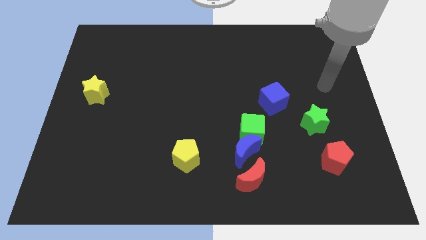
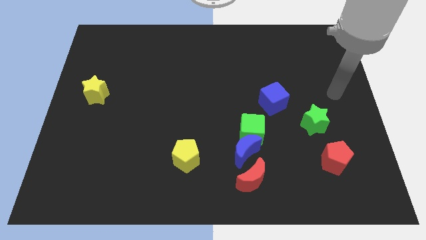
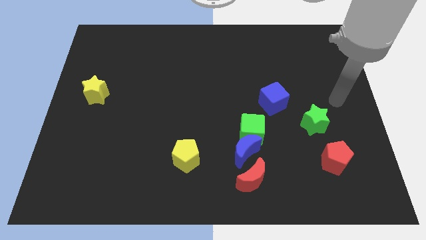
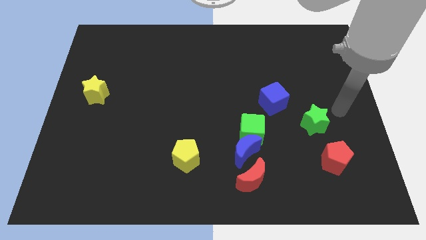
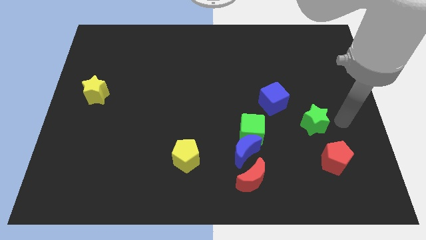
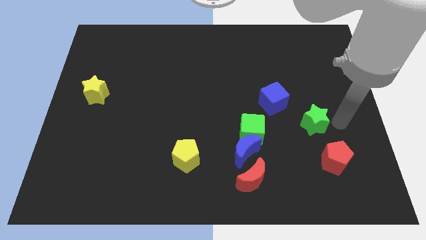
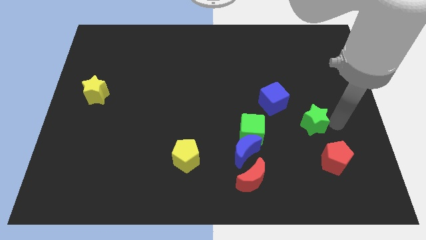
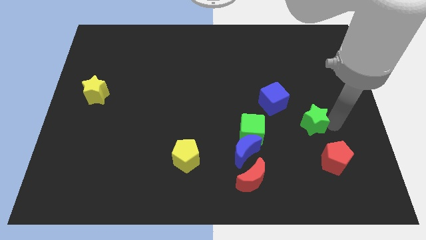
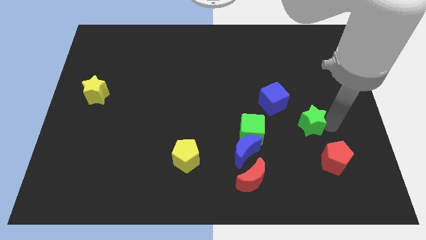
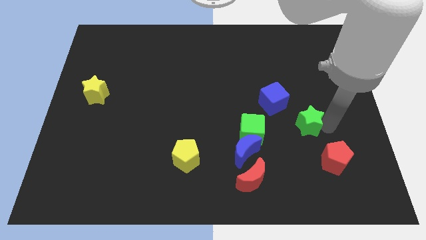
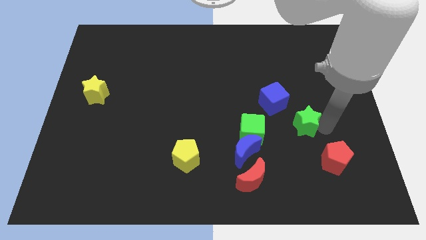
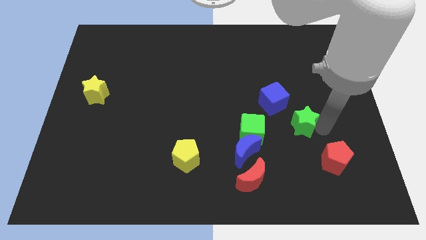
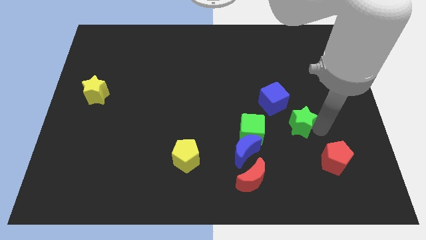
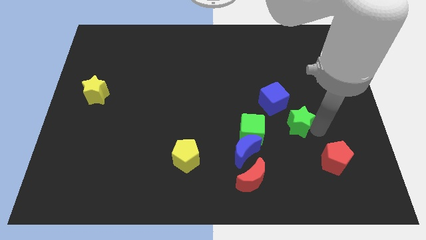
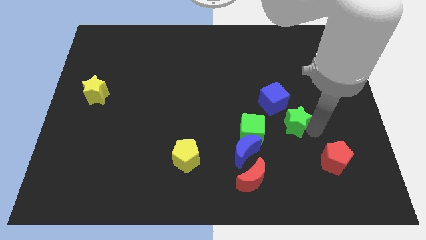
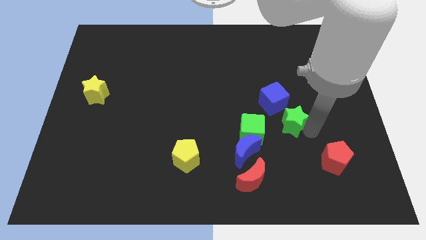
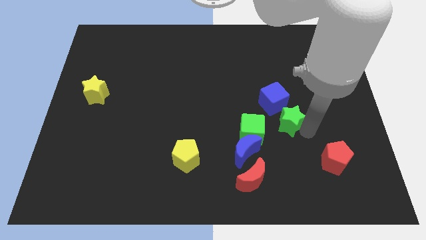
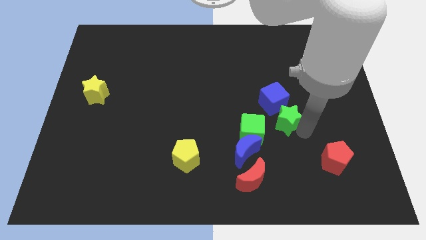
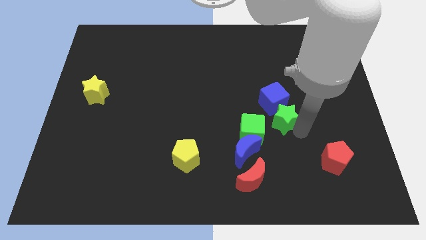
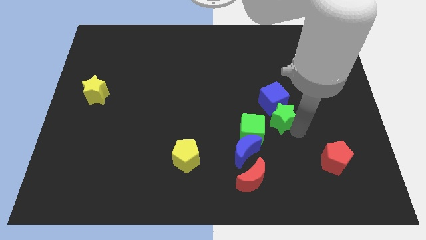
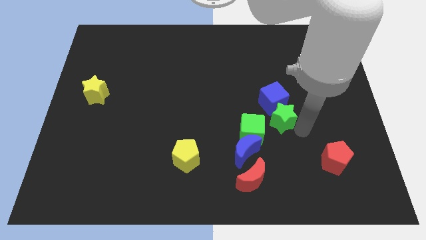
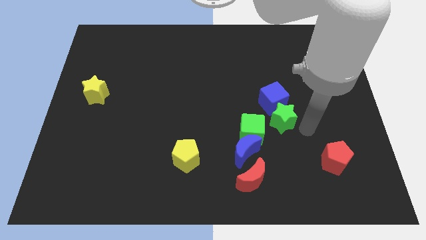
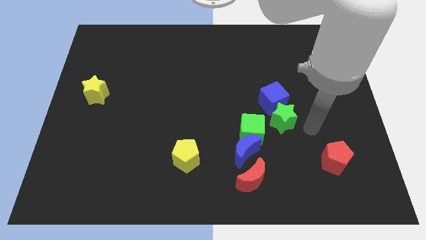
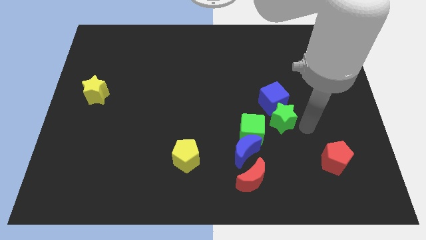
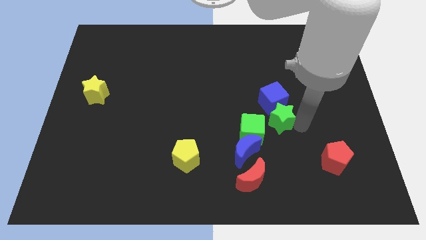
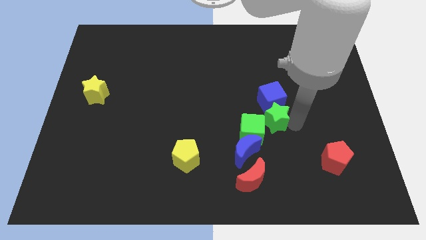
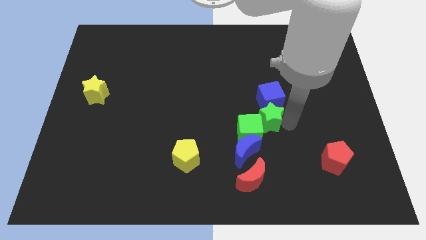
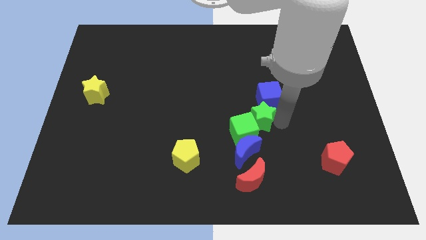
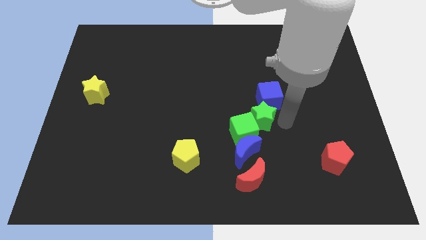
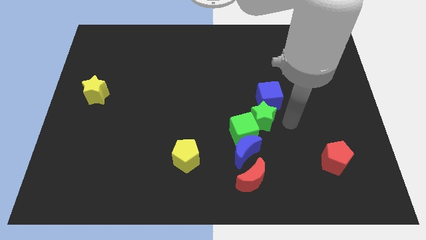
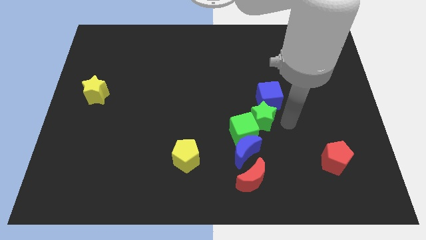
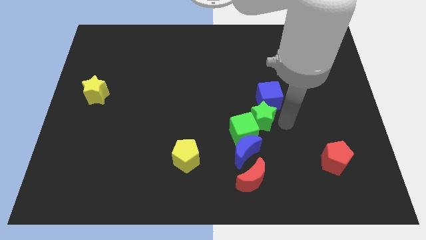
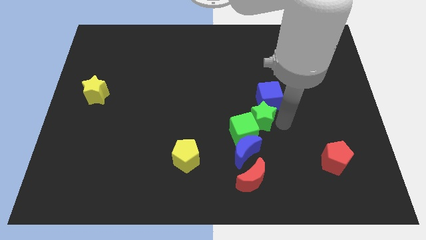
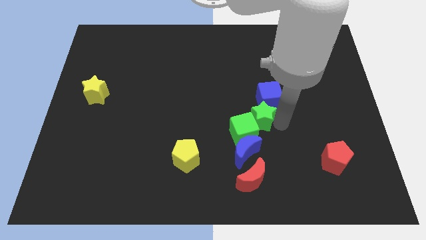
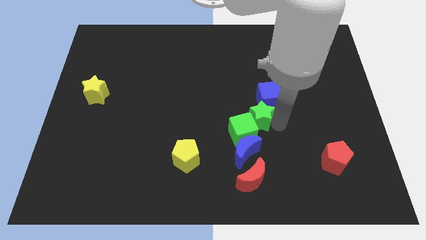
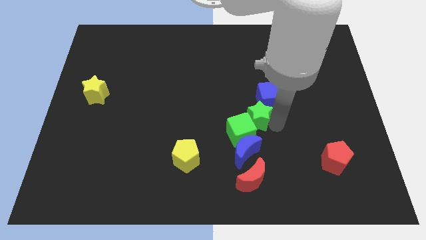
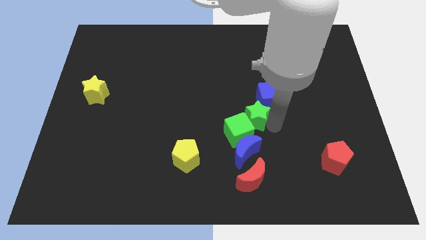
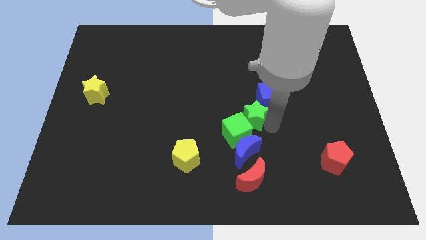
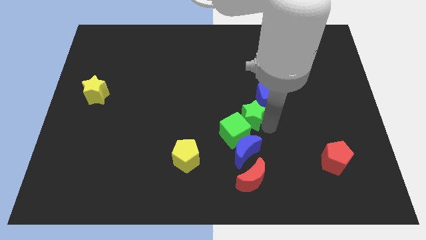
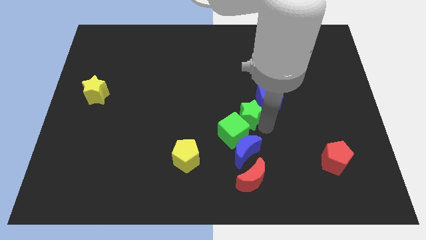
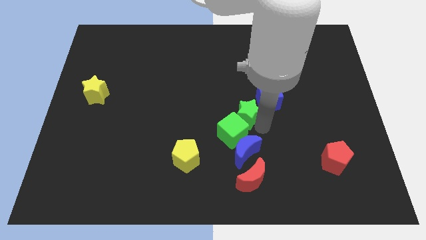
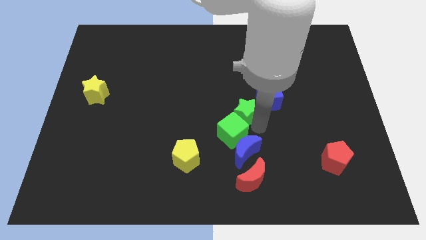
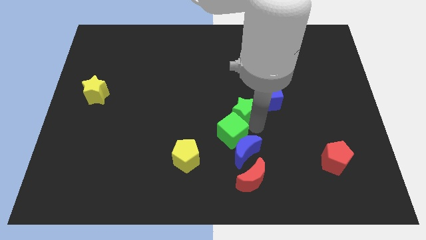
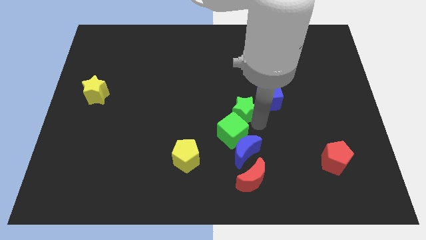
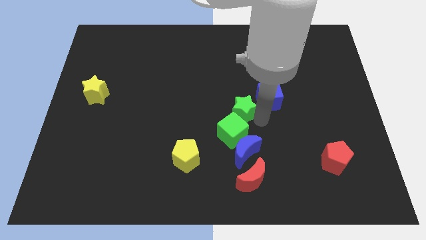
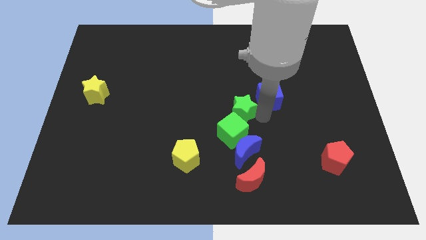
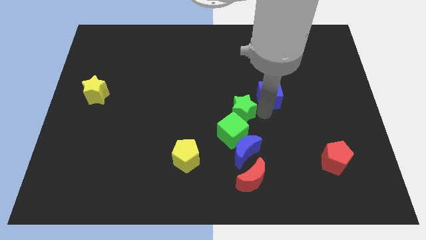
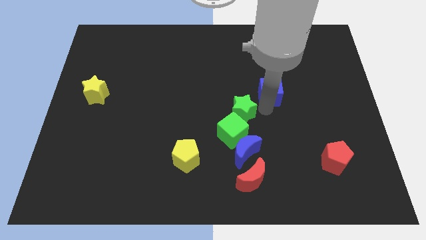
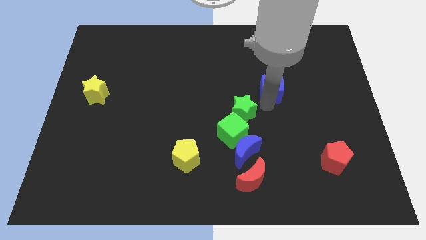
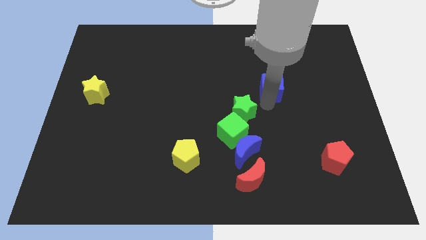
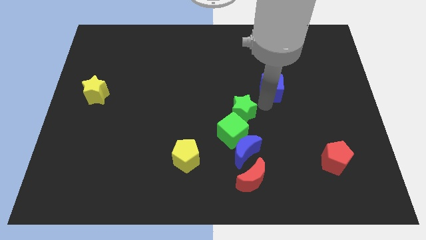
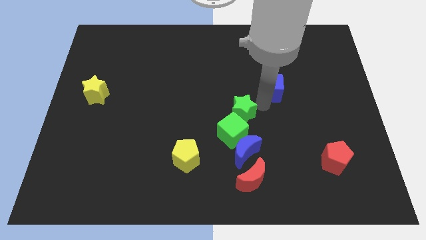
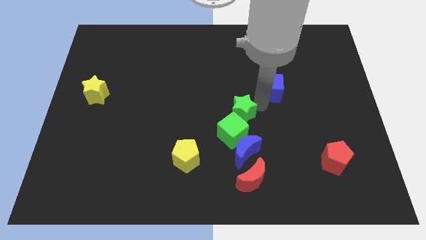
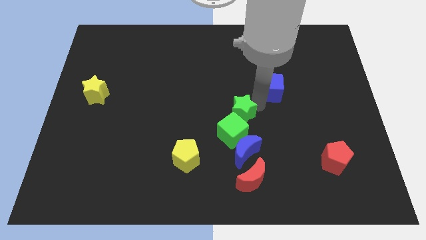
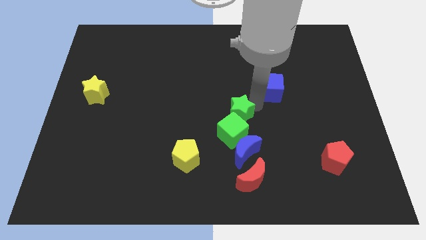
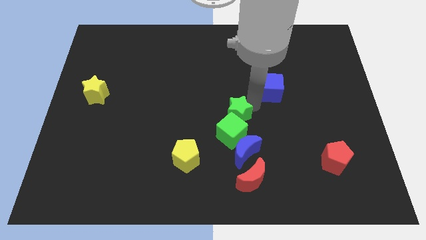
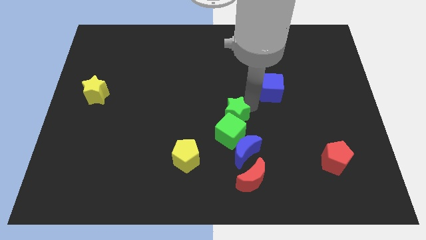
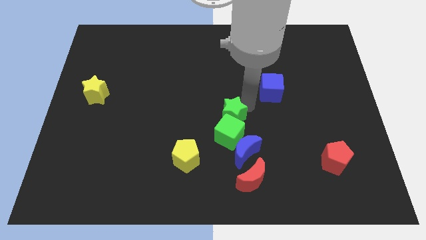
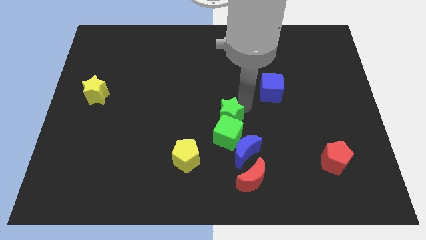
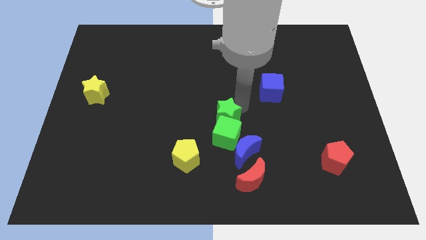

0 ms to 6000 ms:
slide the green star left

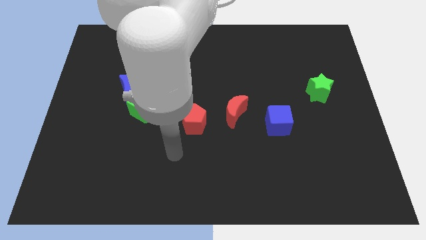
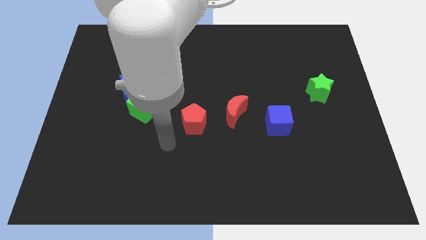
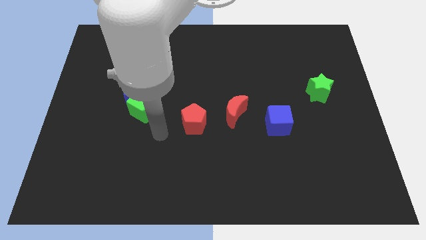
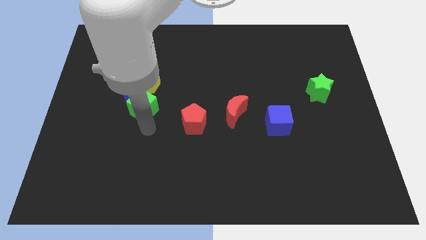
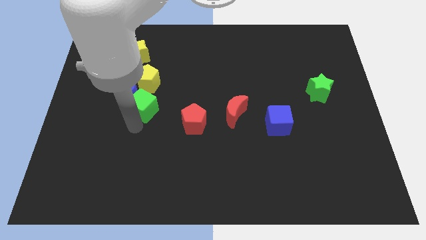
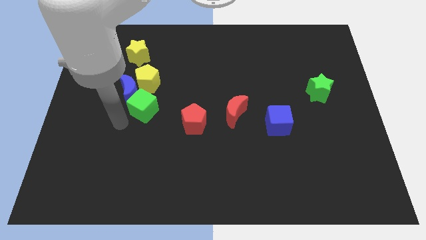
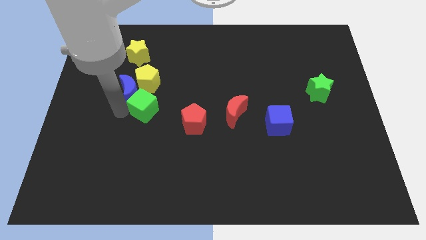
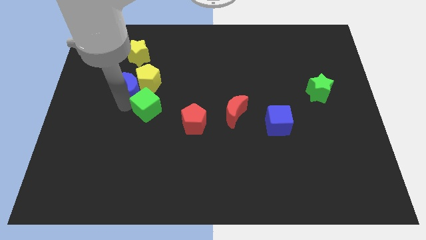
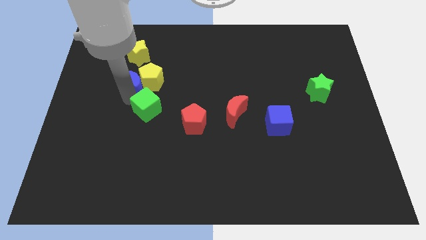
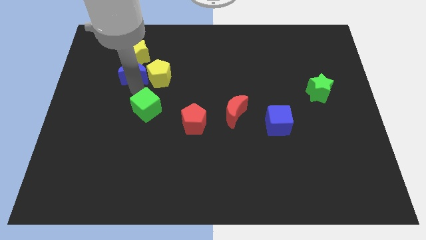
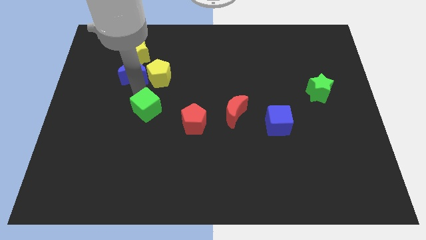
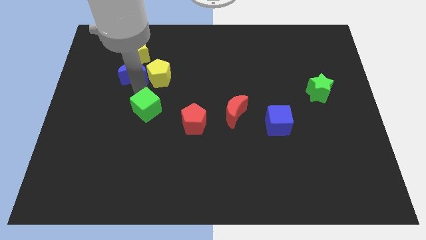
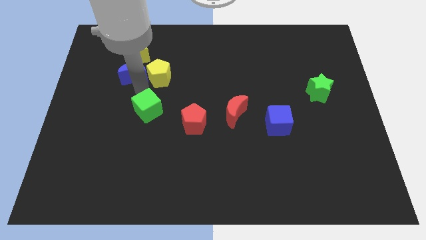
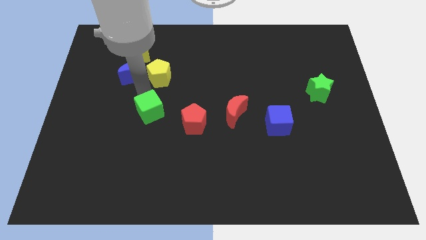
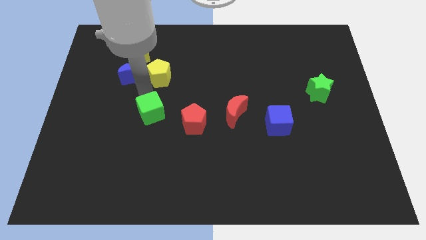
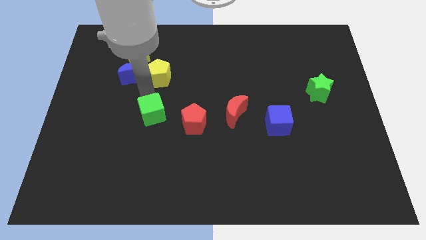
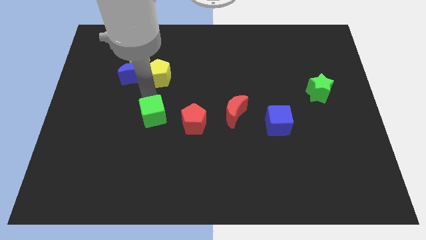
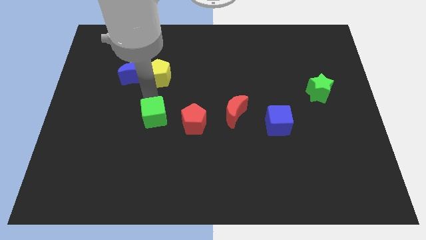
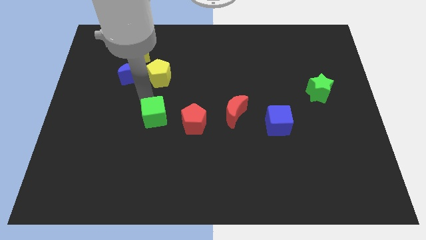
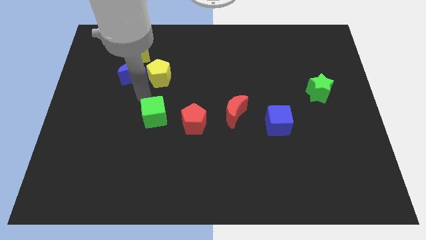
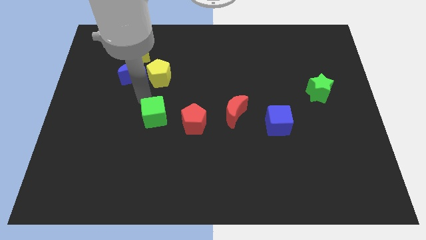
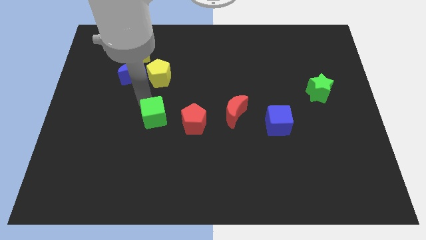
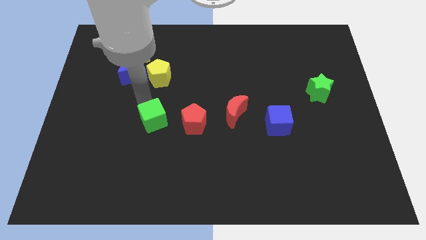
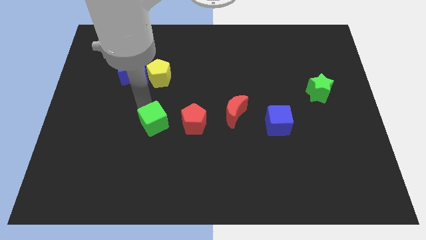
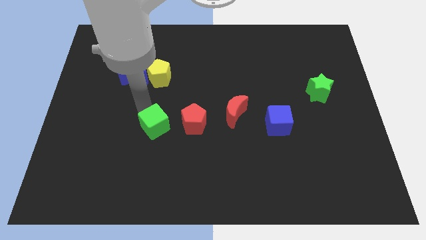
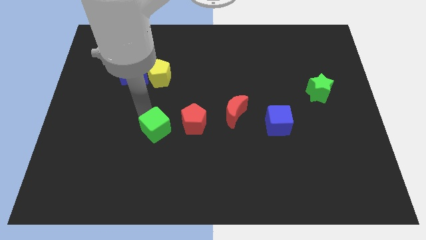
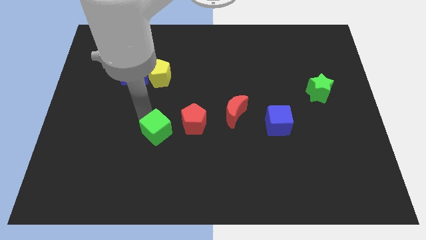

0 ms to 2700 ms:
slightly slide the green cube downwards and then to the right
